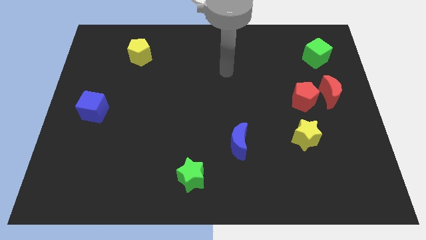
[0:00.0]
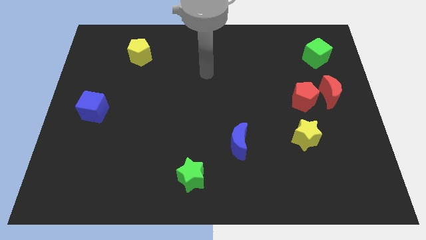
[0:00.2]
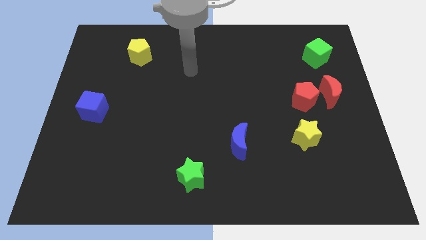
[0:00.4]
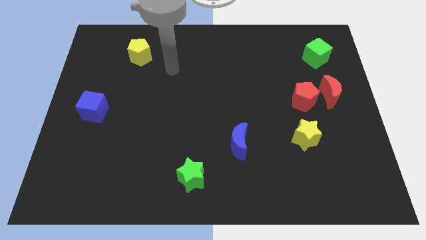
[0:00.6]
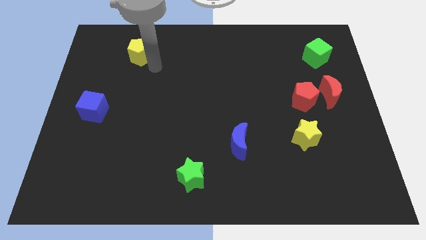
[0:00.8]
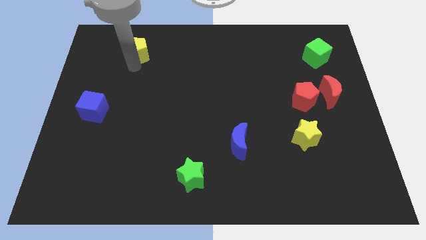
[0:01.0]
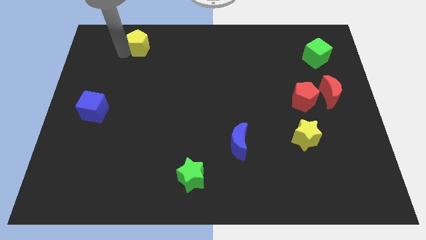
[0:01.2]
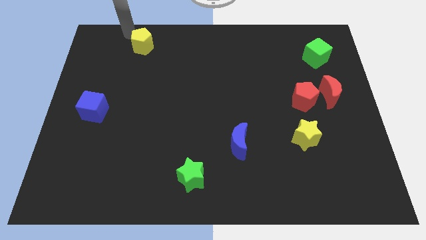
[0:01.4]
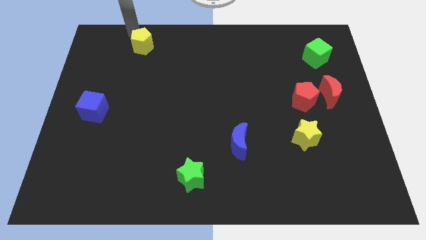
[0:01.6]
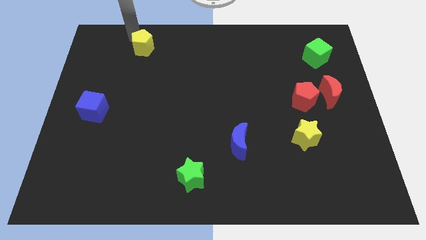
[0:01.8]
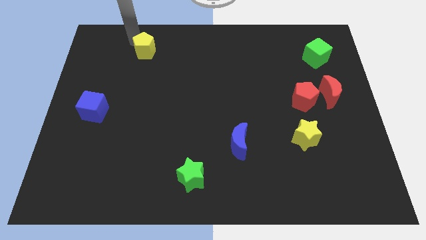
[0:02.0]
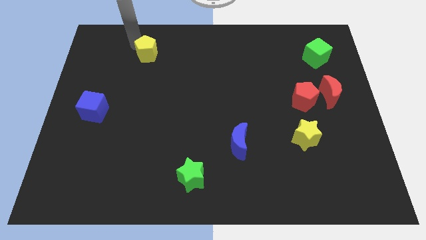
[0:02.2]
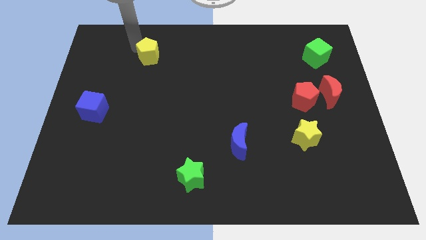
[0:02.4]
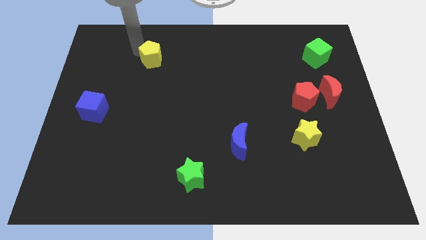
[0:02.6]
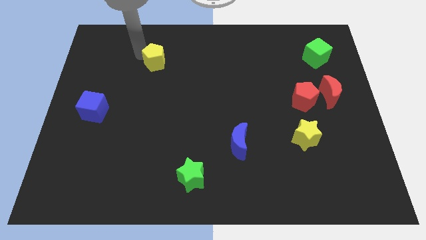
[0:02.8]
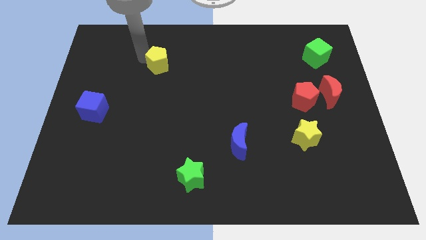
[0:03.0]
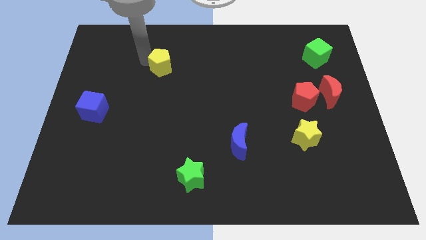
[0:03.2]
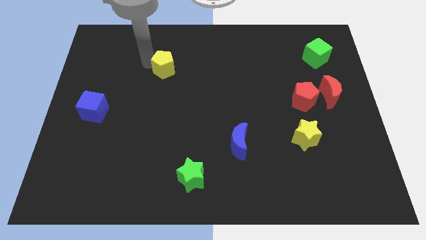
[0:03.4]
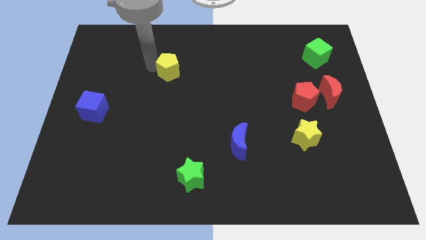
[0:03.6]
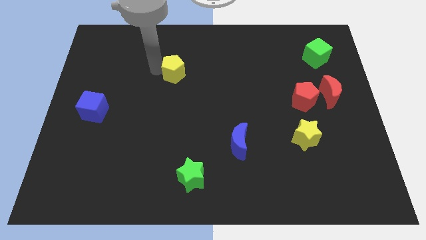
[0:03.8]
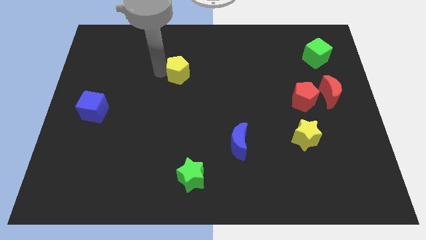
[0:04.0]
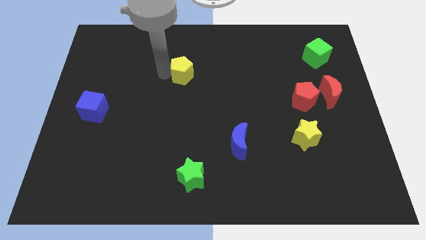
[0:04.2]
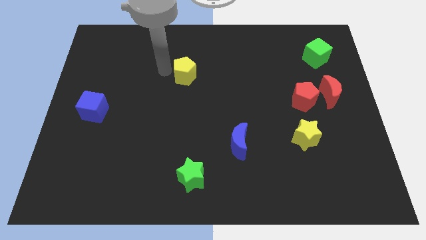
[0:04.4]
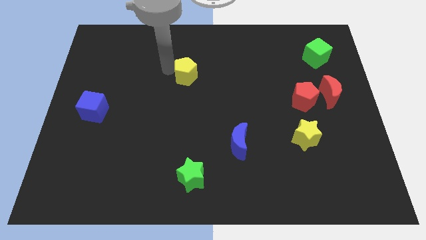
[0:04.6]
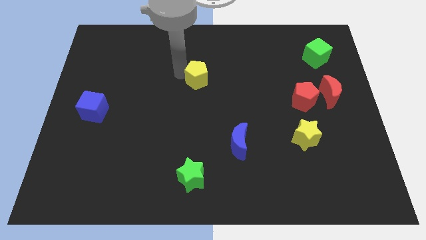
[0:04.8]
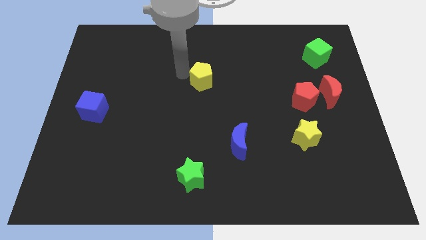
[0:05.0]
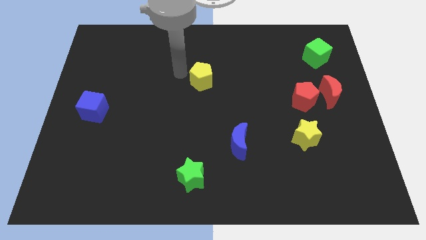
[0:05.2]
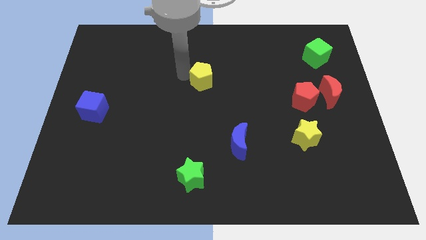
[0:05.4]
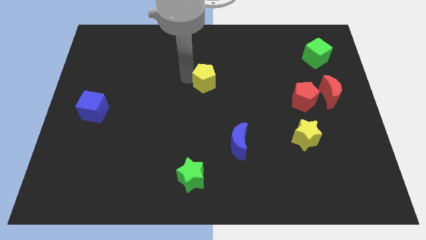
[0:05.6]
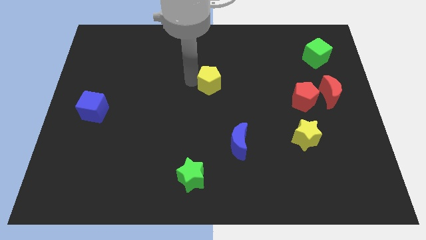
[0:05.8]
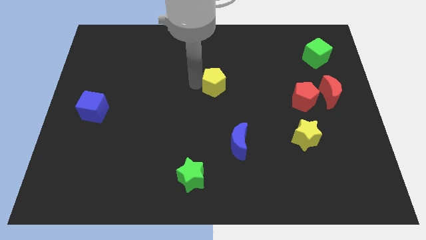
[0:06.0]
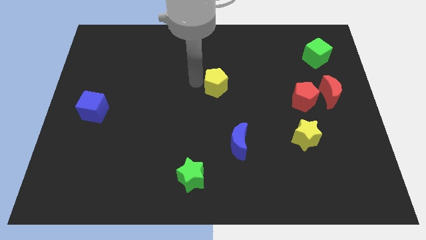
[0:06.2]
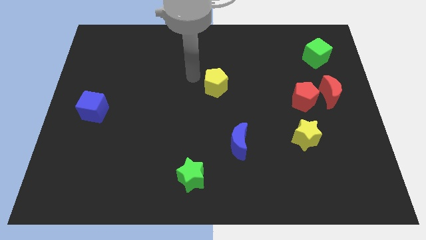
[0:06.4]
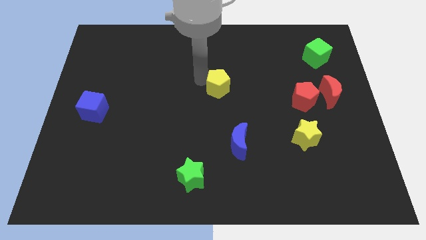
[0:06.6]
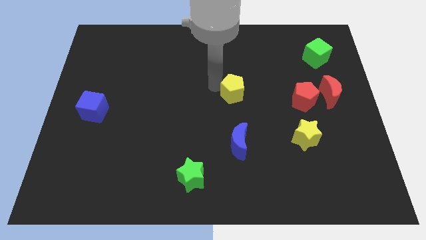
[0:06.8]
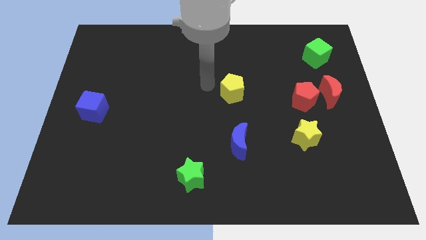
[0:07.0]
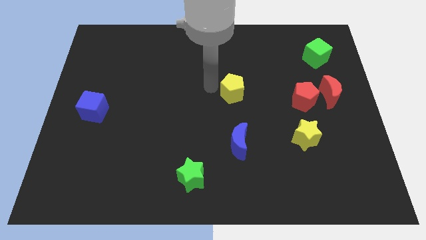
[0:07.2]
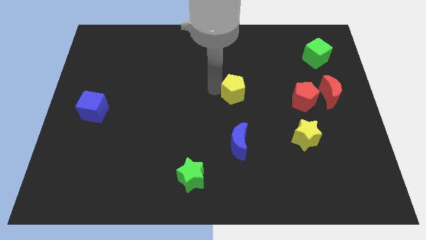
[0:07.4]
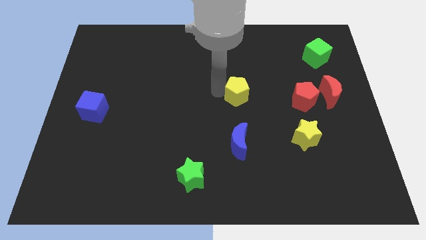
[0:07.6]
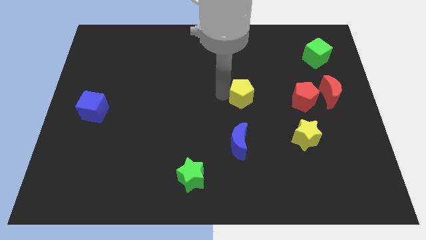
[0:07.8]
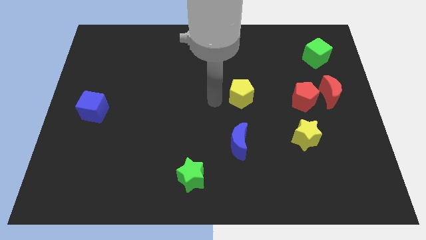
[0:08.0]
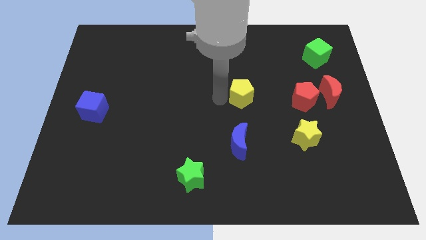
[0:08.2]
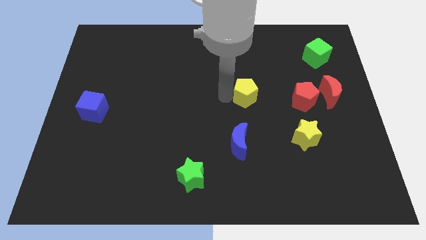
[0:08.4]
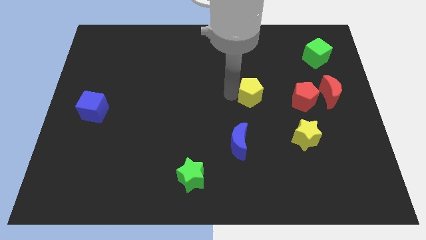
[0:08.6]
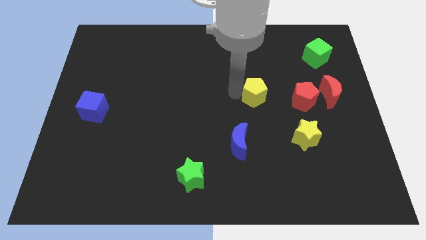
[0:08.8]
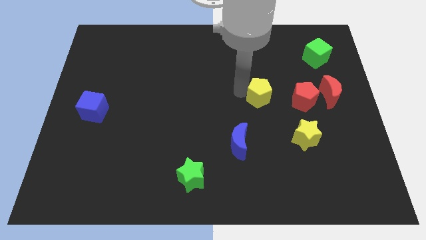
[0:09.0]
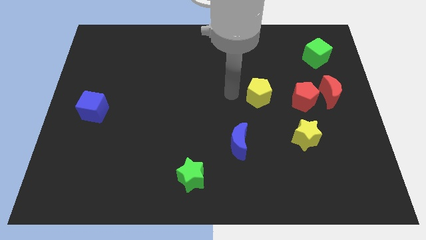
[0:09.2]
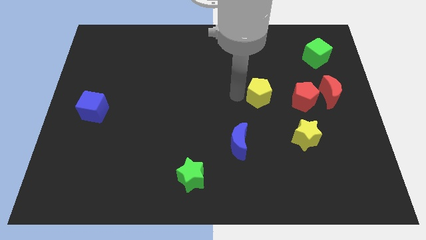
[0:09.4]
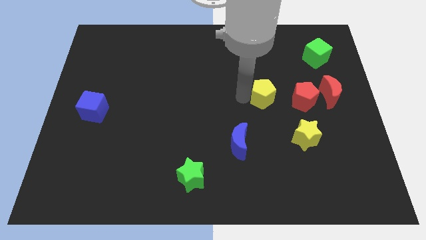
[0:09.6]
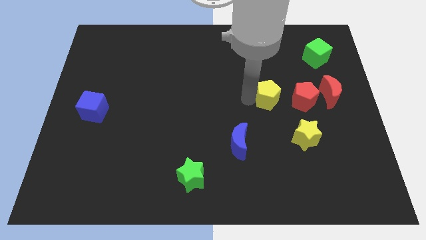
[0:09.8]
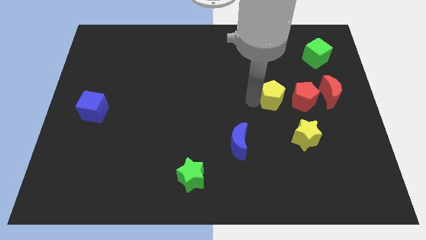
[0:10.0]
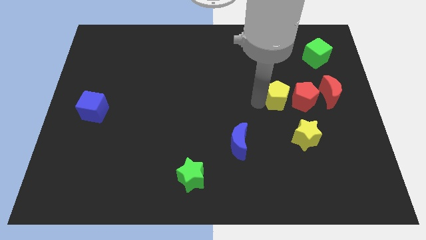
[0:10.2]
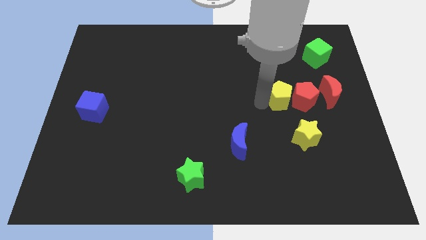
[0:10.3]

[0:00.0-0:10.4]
move the yellow pentagon next to the red pentagon
